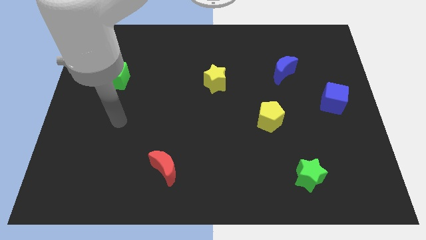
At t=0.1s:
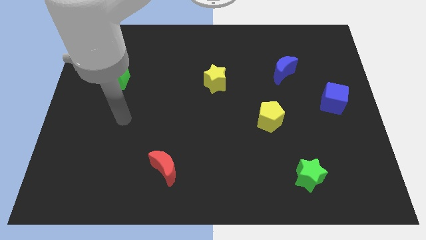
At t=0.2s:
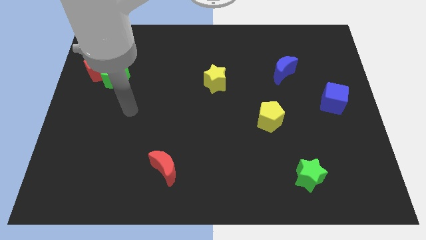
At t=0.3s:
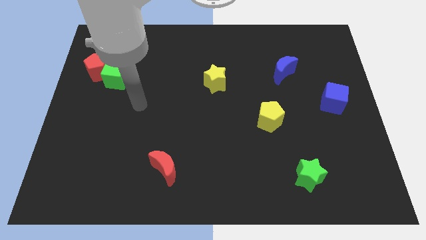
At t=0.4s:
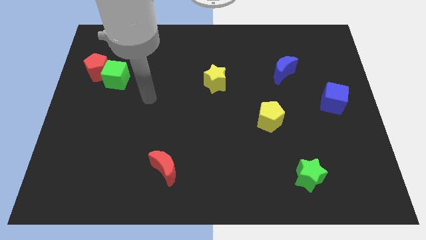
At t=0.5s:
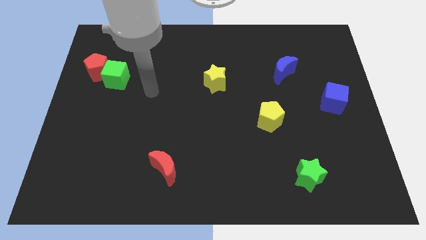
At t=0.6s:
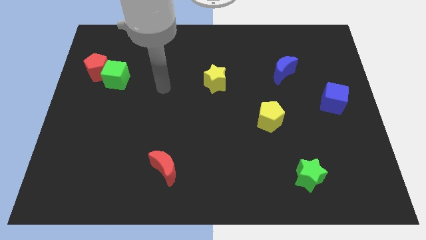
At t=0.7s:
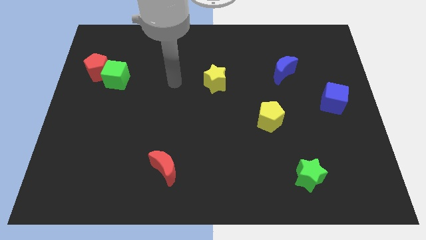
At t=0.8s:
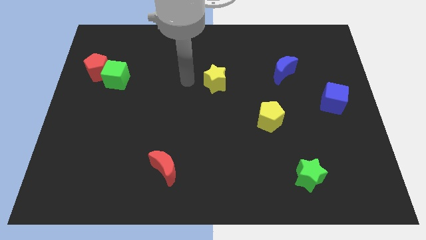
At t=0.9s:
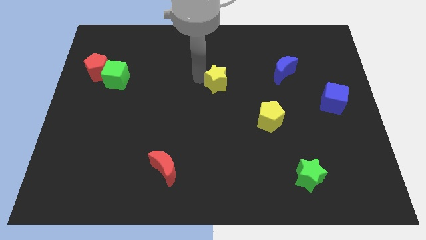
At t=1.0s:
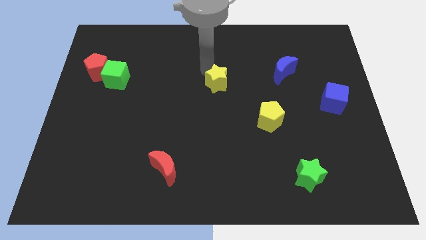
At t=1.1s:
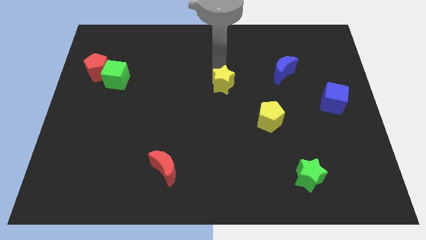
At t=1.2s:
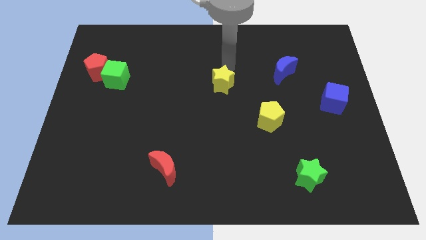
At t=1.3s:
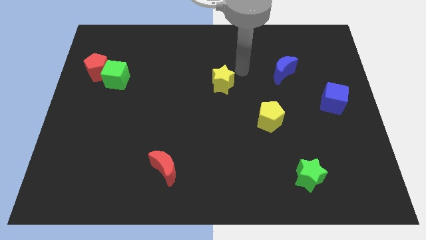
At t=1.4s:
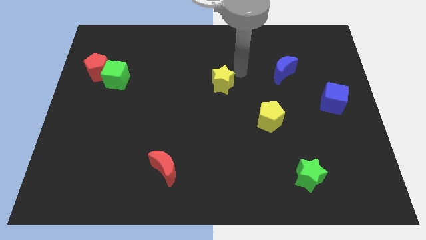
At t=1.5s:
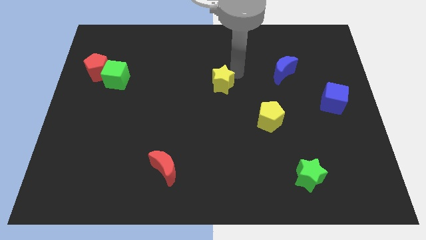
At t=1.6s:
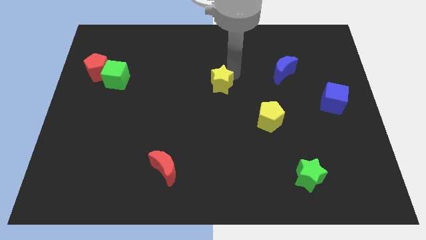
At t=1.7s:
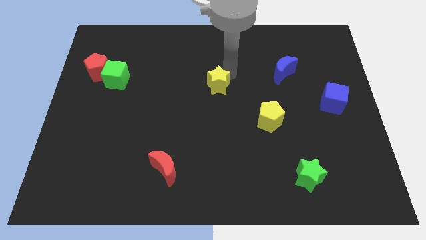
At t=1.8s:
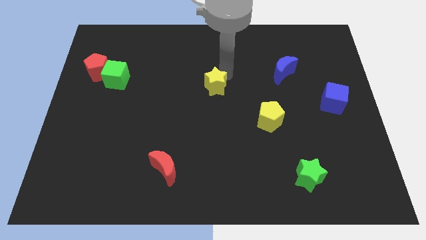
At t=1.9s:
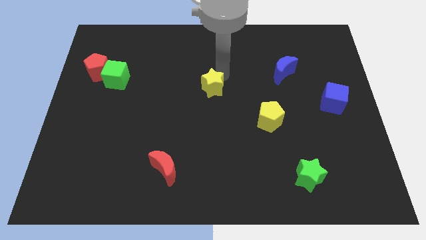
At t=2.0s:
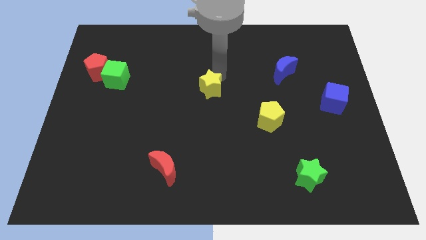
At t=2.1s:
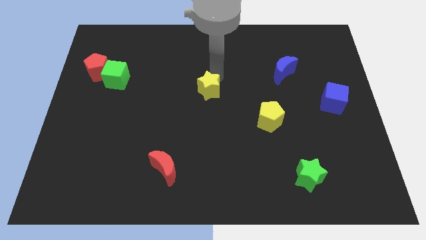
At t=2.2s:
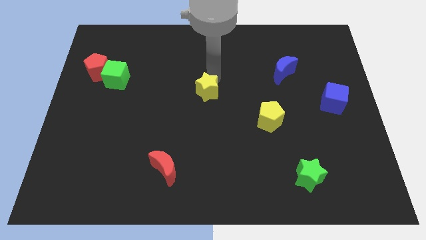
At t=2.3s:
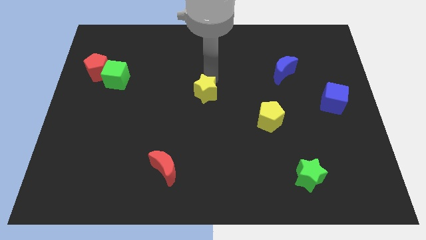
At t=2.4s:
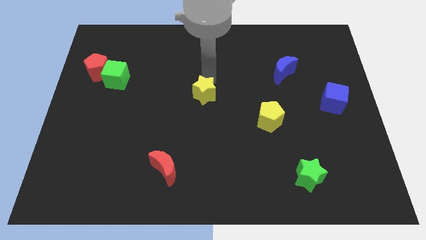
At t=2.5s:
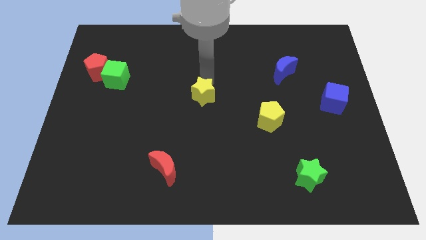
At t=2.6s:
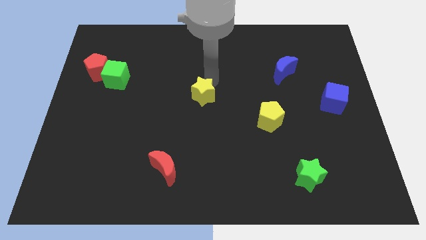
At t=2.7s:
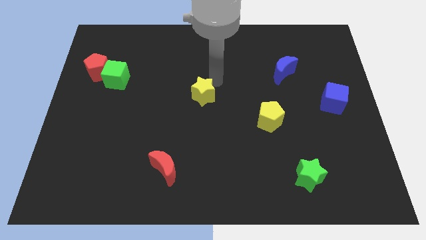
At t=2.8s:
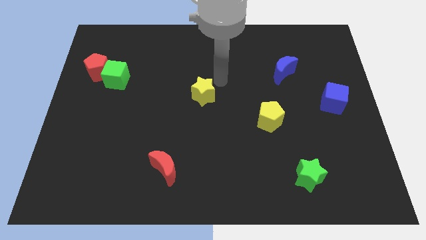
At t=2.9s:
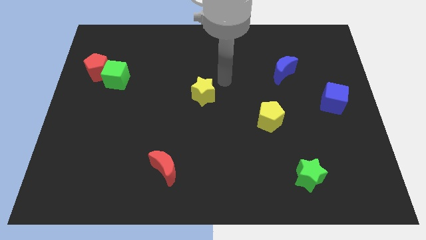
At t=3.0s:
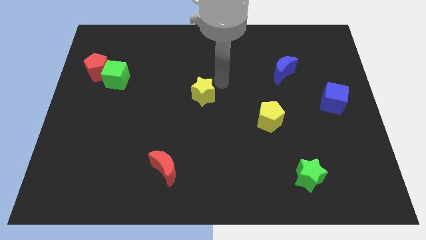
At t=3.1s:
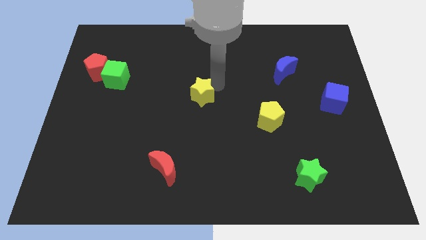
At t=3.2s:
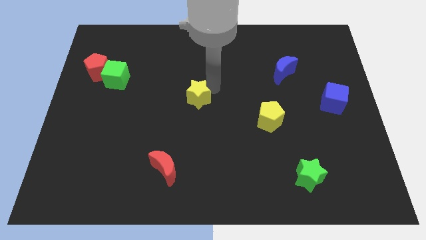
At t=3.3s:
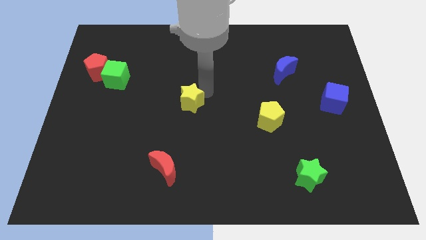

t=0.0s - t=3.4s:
slide the yellow star downwards and to the left diagonally slightly

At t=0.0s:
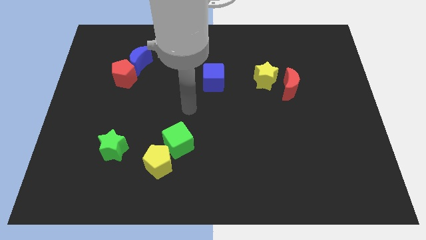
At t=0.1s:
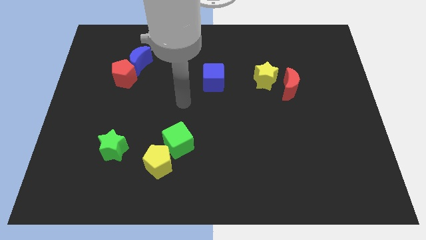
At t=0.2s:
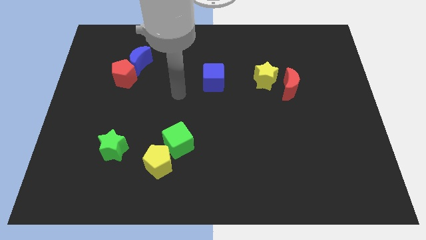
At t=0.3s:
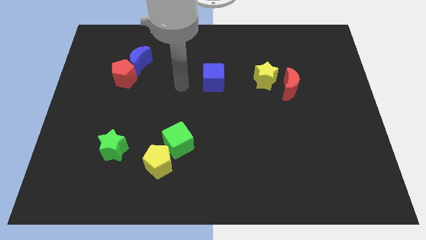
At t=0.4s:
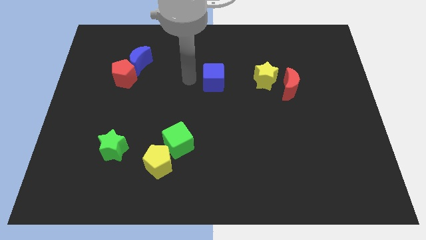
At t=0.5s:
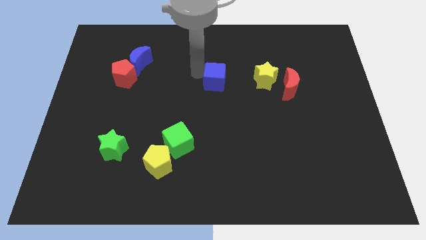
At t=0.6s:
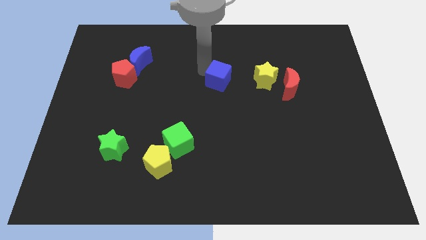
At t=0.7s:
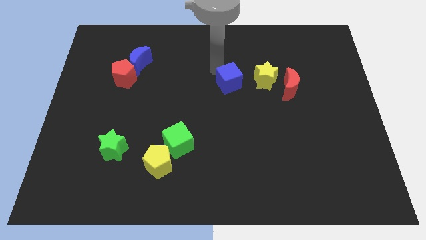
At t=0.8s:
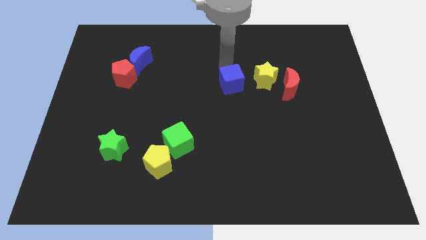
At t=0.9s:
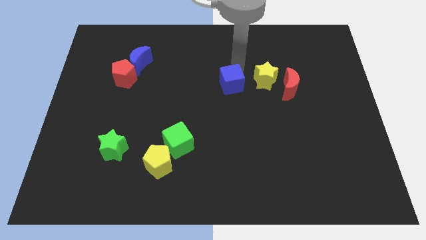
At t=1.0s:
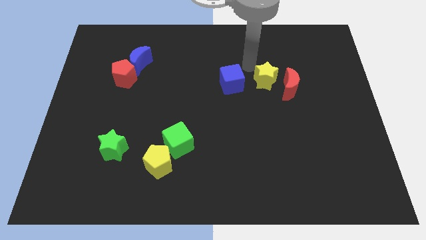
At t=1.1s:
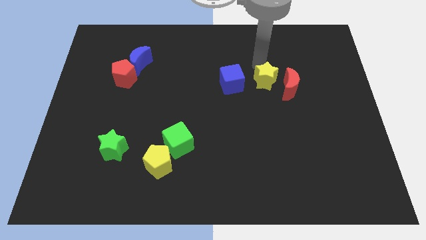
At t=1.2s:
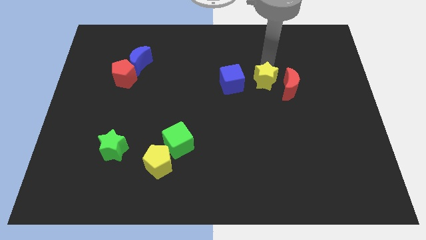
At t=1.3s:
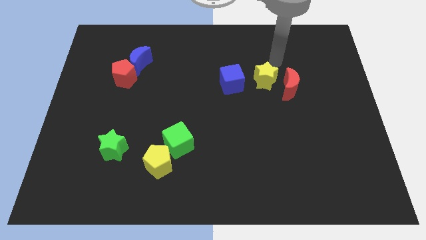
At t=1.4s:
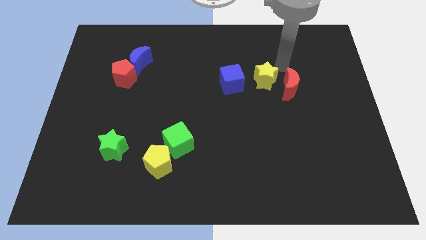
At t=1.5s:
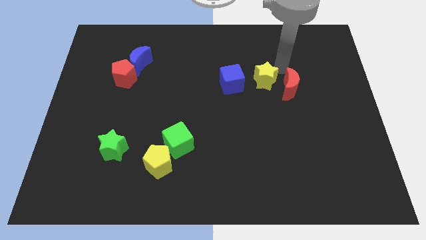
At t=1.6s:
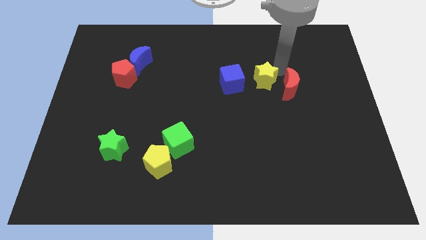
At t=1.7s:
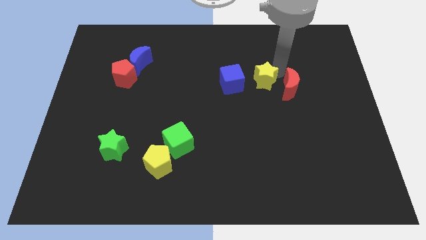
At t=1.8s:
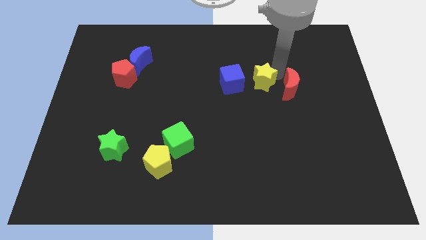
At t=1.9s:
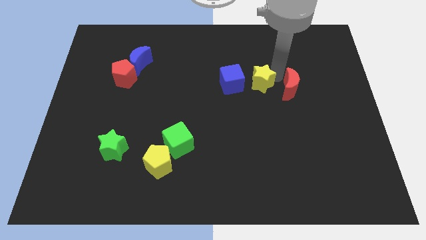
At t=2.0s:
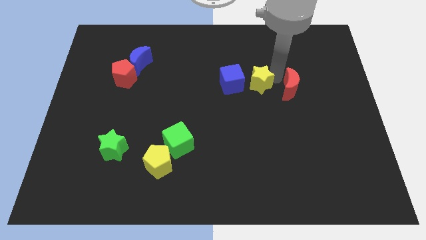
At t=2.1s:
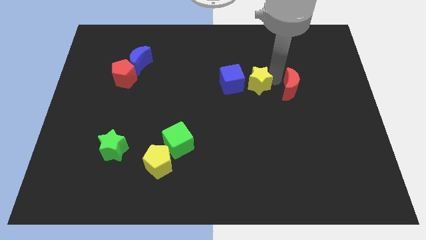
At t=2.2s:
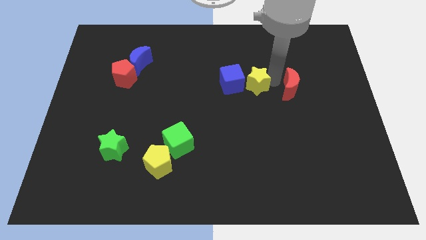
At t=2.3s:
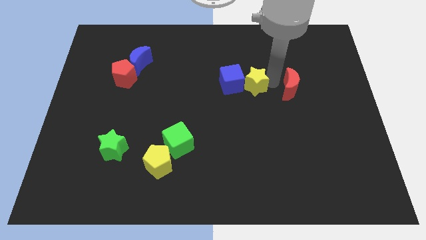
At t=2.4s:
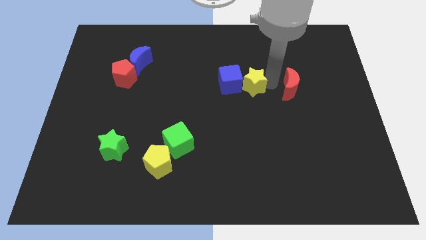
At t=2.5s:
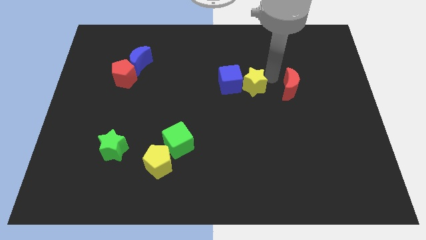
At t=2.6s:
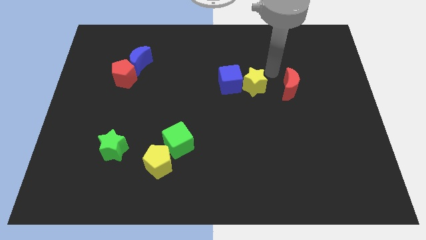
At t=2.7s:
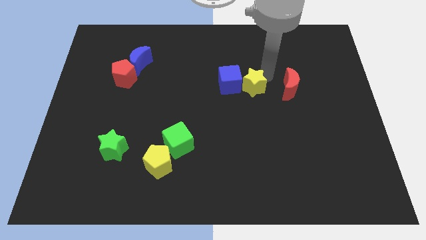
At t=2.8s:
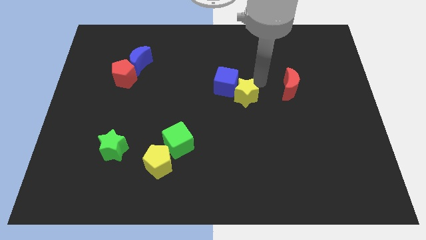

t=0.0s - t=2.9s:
slightly push the yellow star down and then left

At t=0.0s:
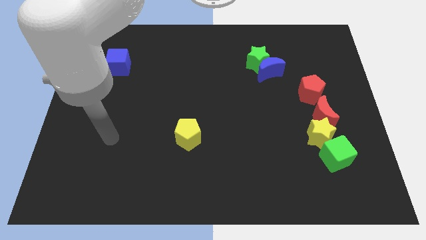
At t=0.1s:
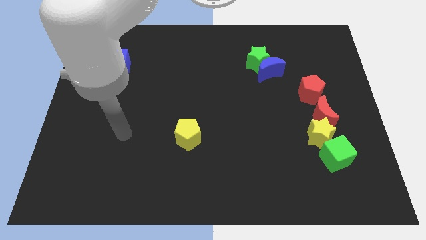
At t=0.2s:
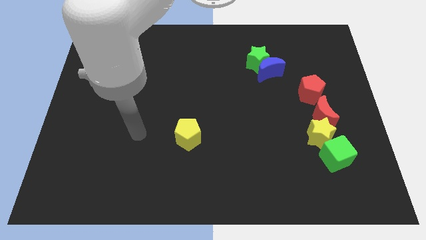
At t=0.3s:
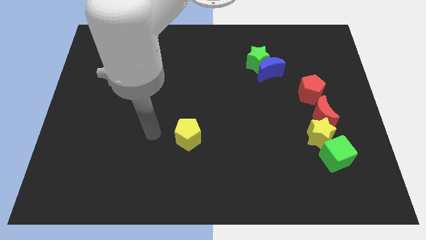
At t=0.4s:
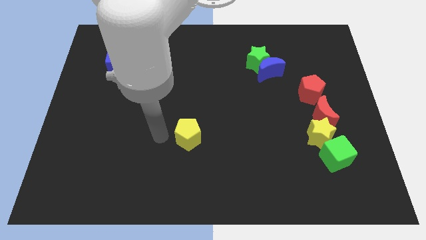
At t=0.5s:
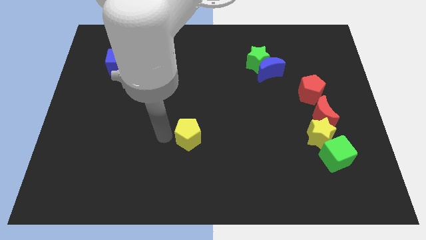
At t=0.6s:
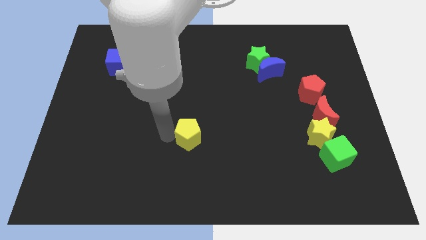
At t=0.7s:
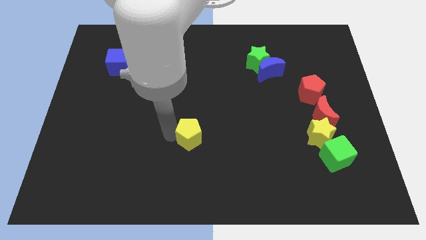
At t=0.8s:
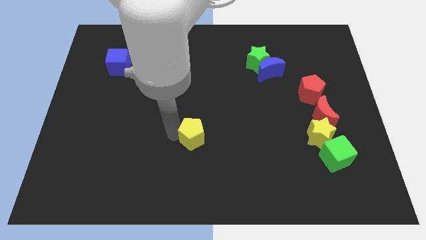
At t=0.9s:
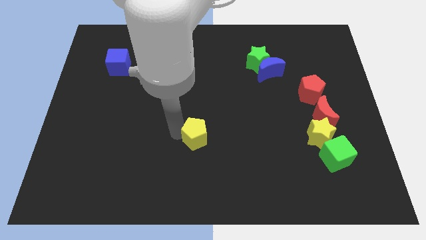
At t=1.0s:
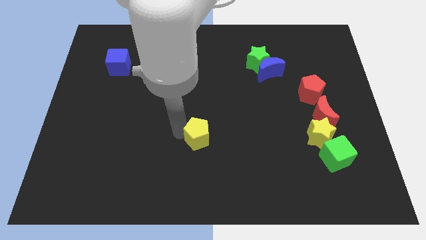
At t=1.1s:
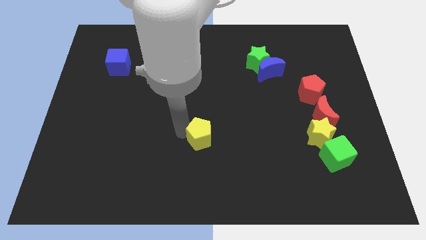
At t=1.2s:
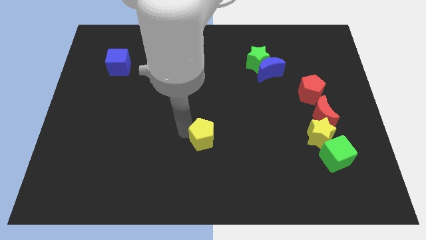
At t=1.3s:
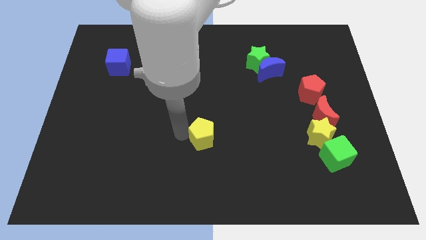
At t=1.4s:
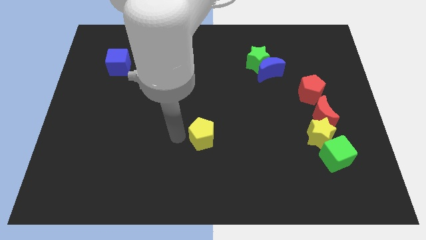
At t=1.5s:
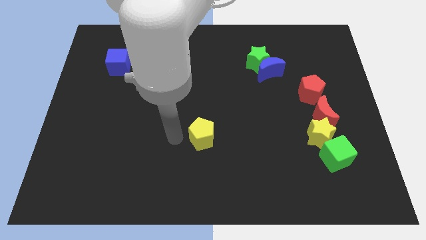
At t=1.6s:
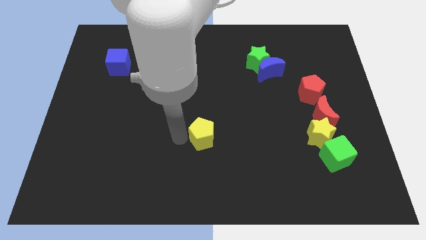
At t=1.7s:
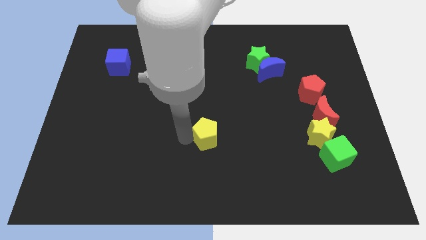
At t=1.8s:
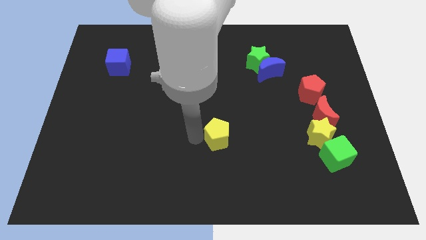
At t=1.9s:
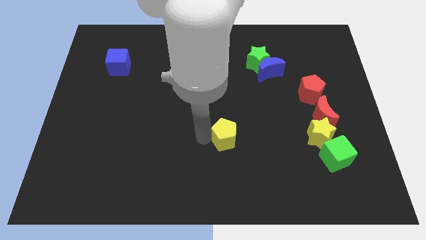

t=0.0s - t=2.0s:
push the yellow pentagon to the right a little bit
